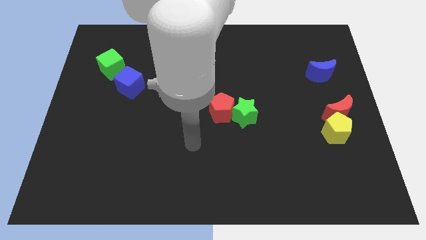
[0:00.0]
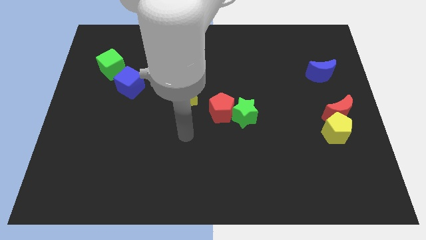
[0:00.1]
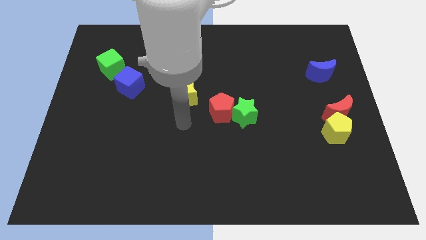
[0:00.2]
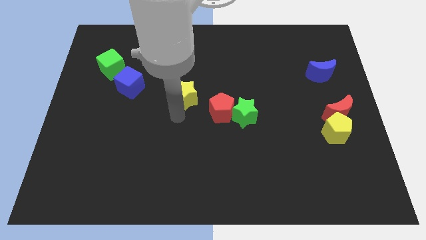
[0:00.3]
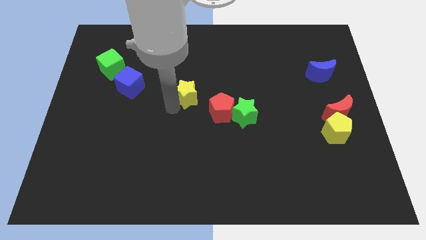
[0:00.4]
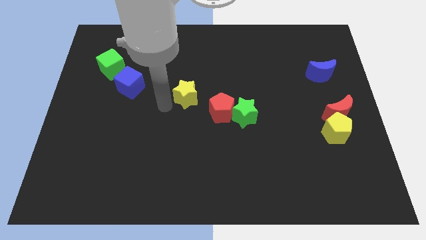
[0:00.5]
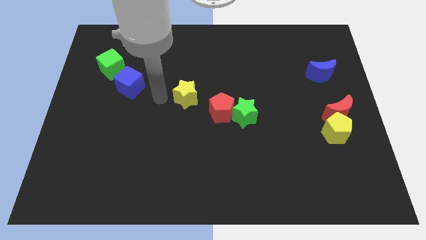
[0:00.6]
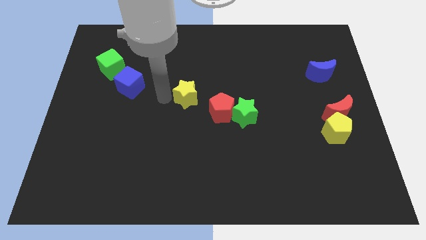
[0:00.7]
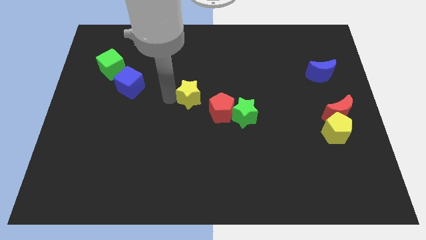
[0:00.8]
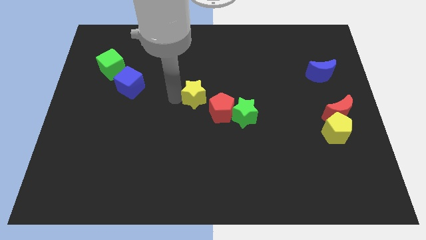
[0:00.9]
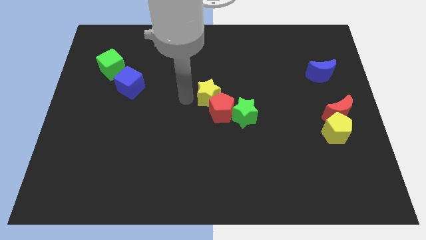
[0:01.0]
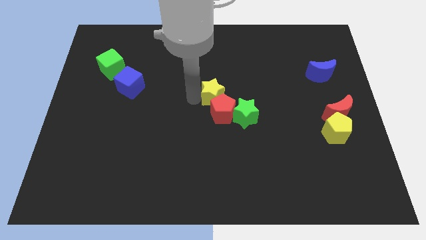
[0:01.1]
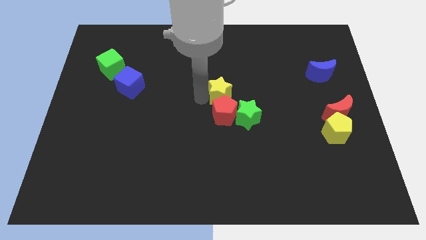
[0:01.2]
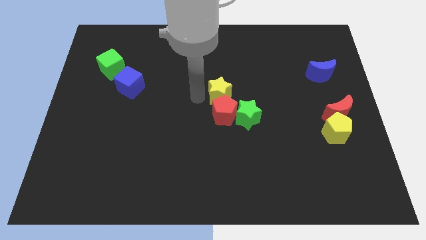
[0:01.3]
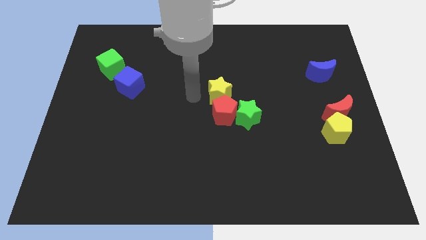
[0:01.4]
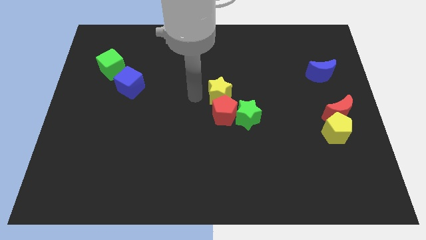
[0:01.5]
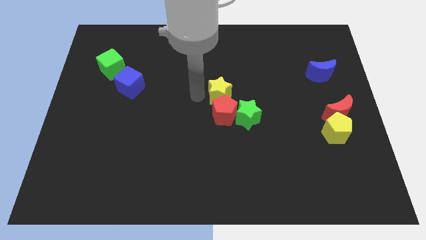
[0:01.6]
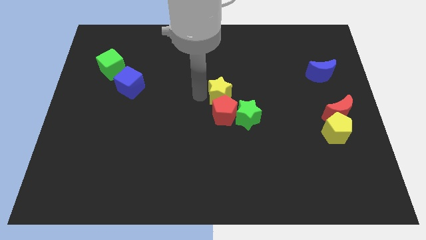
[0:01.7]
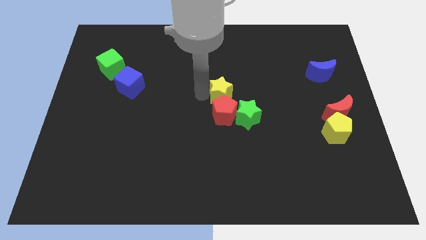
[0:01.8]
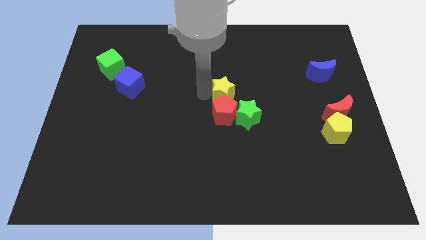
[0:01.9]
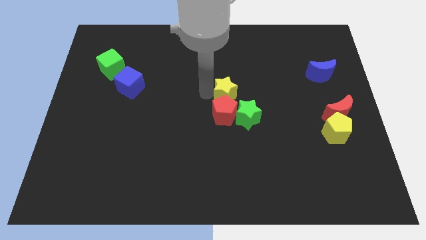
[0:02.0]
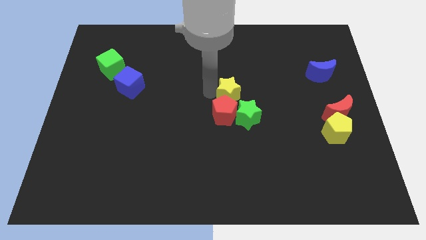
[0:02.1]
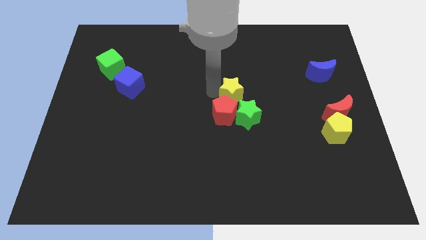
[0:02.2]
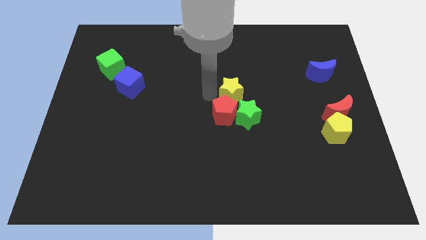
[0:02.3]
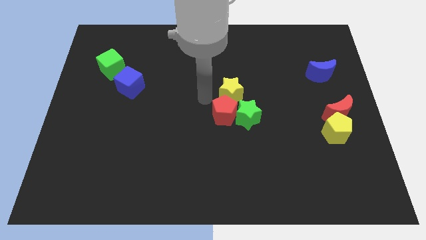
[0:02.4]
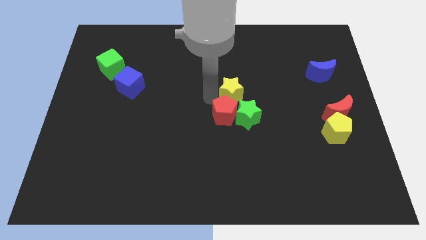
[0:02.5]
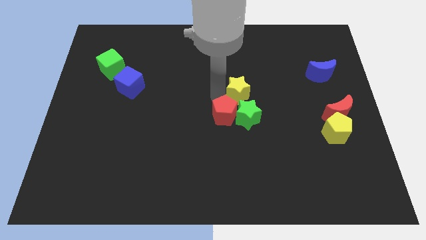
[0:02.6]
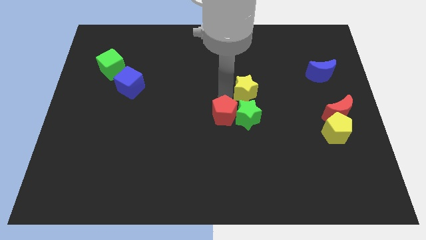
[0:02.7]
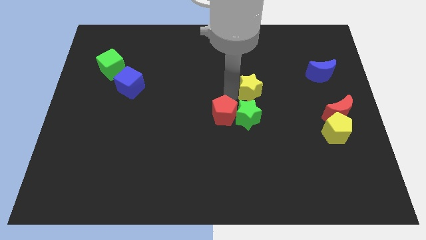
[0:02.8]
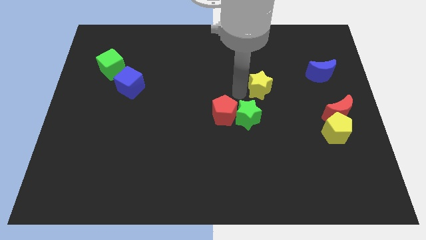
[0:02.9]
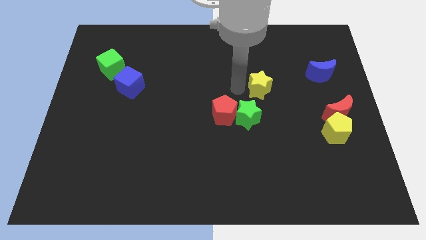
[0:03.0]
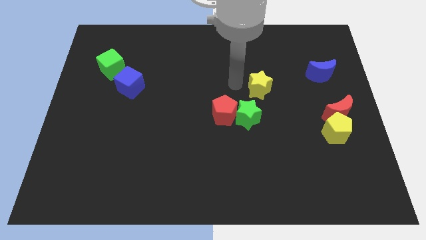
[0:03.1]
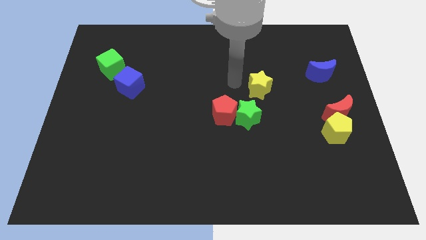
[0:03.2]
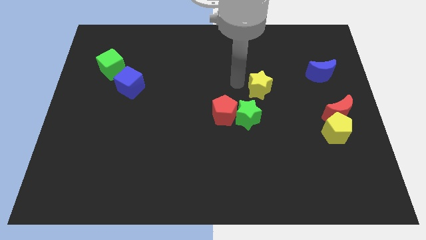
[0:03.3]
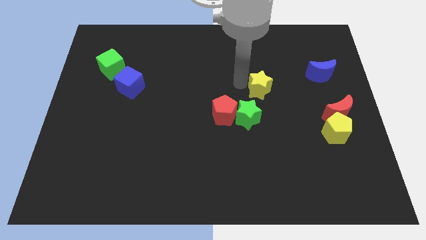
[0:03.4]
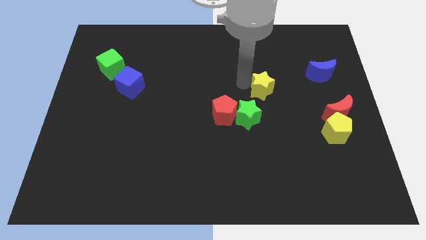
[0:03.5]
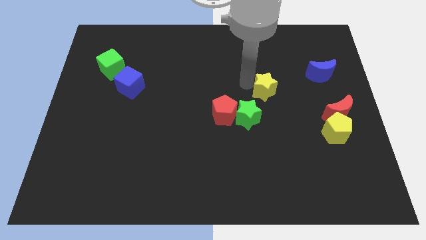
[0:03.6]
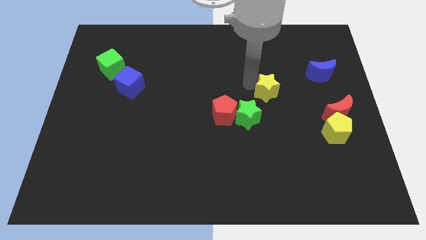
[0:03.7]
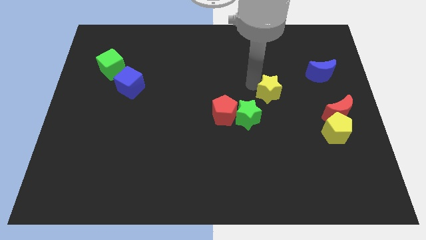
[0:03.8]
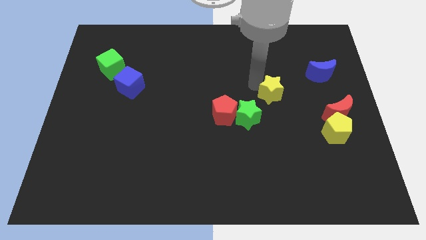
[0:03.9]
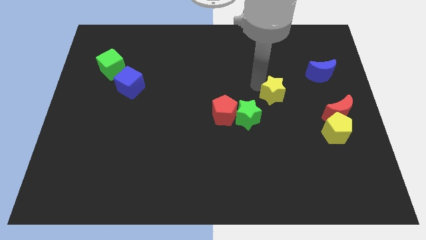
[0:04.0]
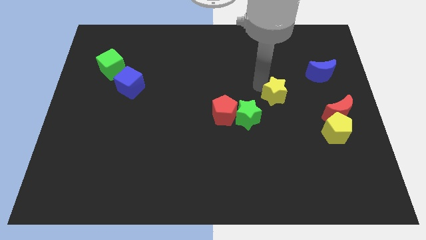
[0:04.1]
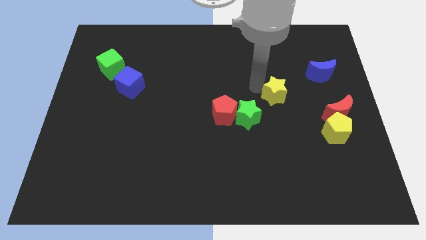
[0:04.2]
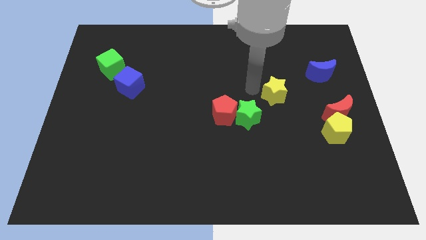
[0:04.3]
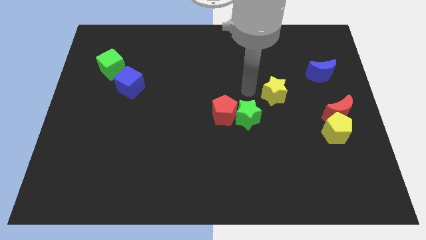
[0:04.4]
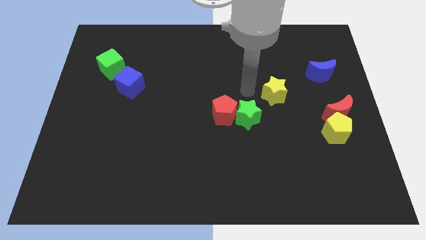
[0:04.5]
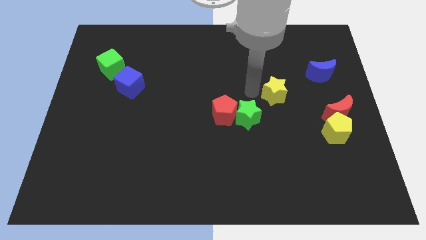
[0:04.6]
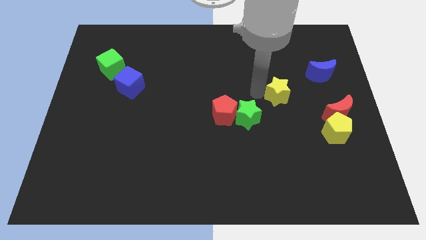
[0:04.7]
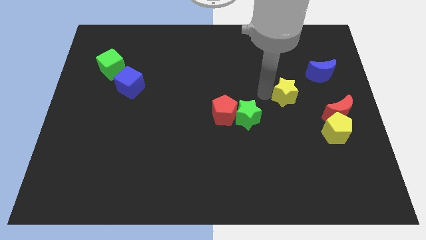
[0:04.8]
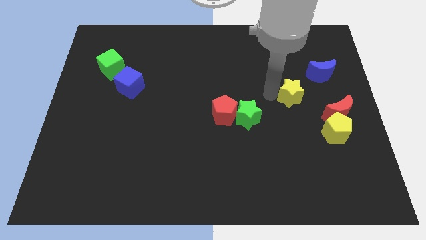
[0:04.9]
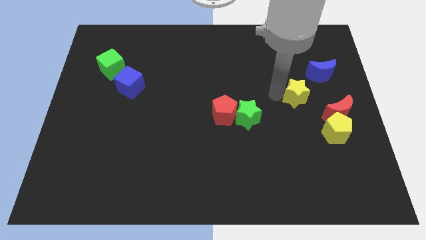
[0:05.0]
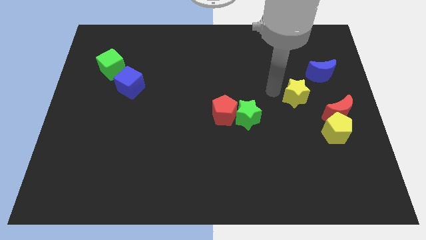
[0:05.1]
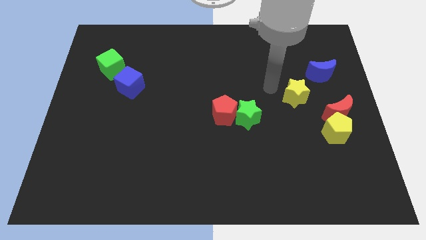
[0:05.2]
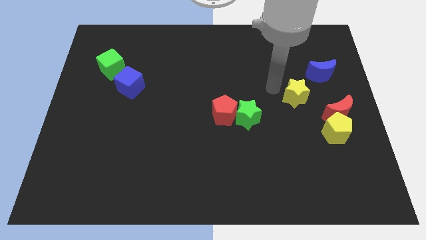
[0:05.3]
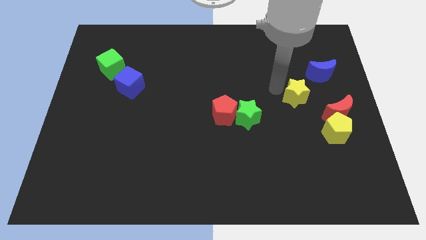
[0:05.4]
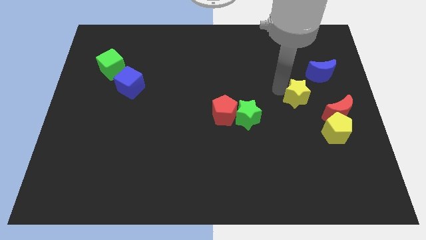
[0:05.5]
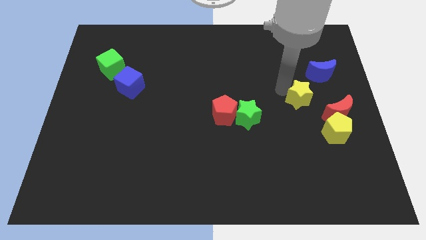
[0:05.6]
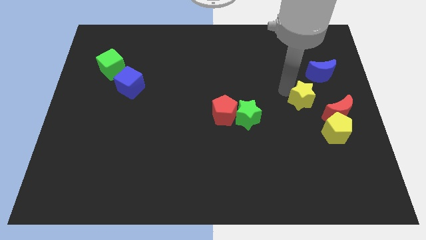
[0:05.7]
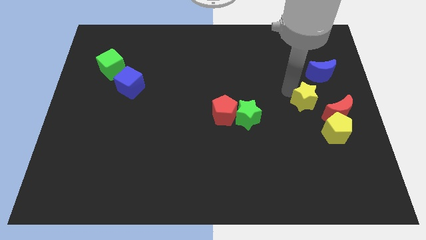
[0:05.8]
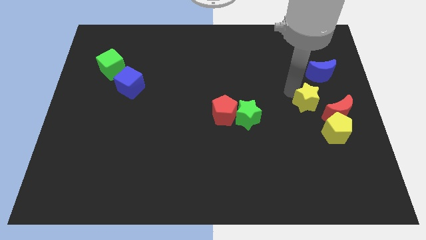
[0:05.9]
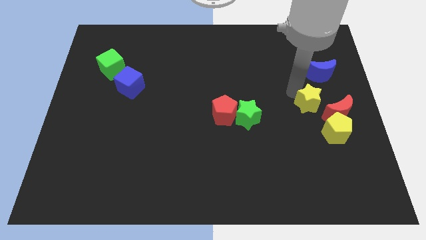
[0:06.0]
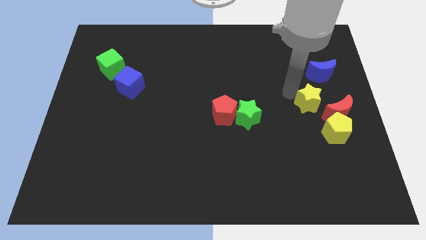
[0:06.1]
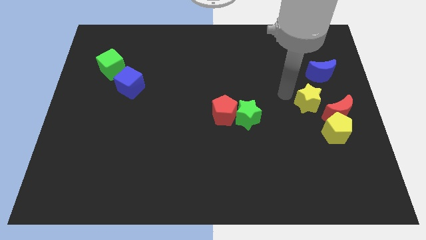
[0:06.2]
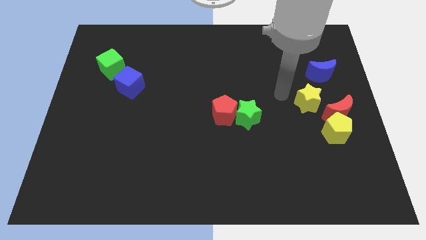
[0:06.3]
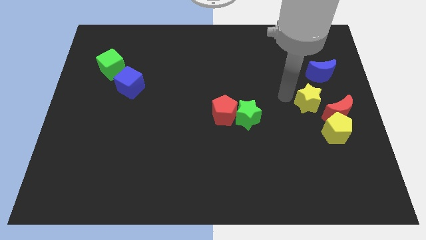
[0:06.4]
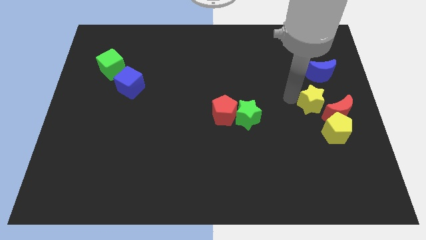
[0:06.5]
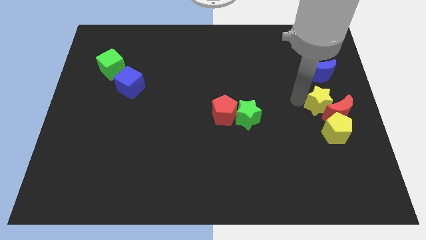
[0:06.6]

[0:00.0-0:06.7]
push the yellow star next to the red moon

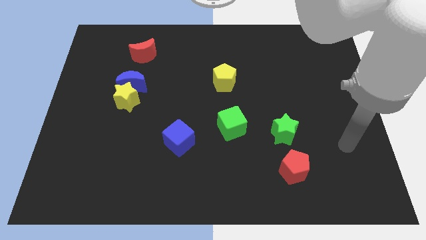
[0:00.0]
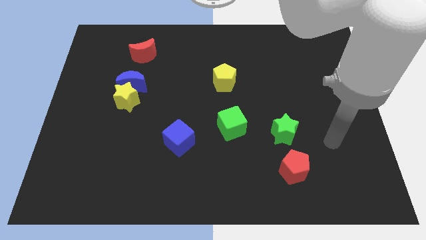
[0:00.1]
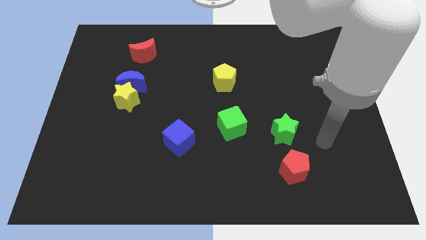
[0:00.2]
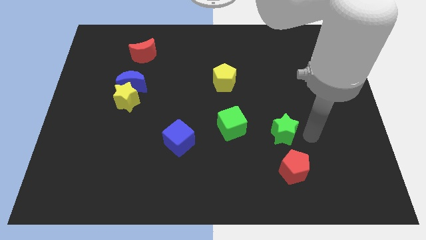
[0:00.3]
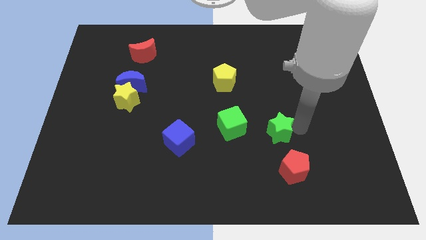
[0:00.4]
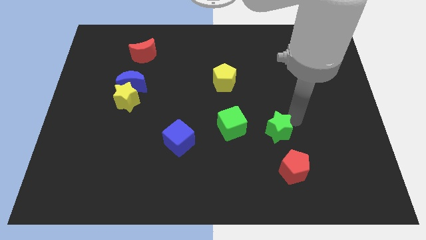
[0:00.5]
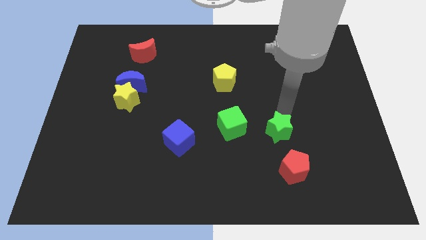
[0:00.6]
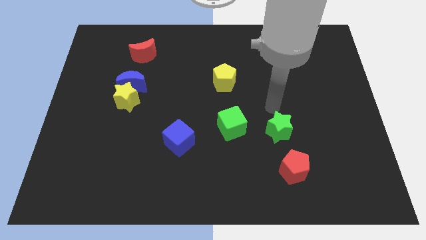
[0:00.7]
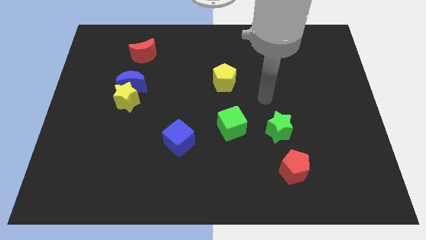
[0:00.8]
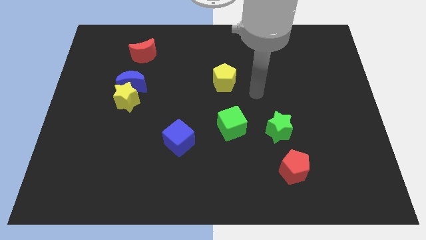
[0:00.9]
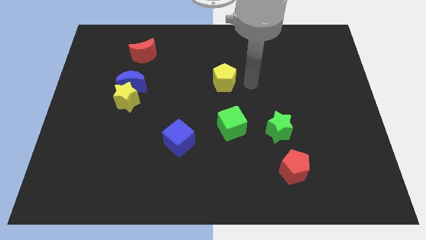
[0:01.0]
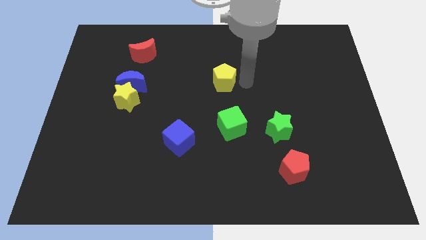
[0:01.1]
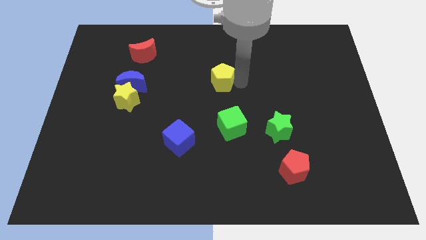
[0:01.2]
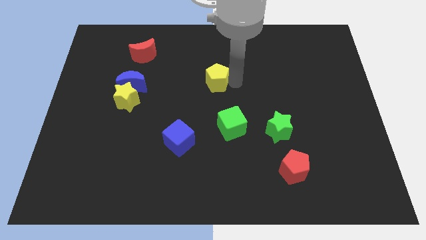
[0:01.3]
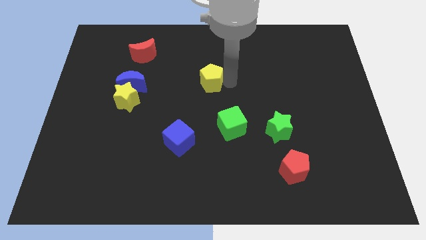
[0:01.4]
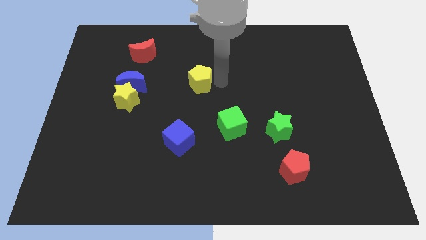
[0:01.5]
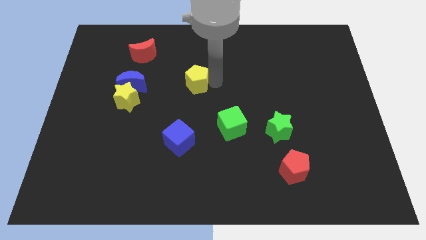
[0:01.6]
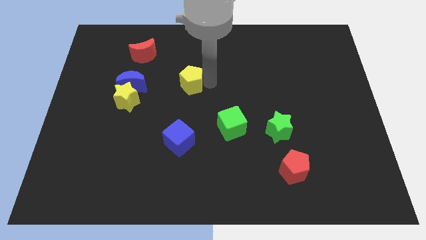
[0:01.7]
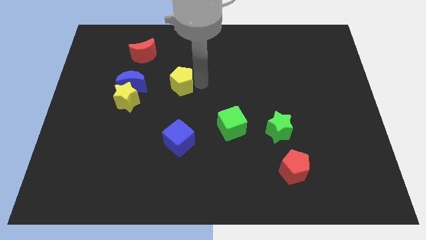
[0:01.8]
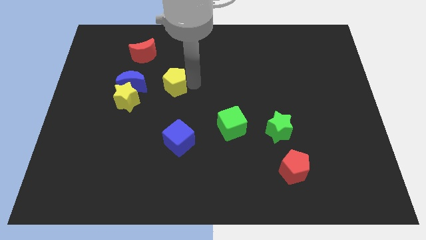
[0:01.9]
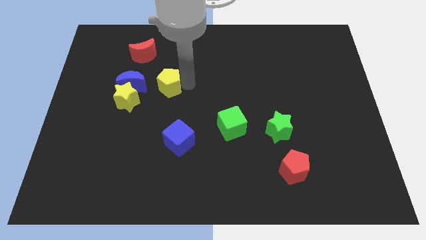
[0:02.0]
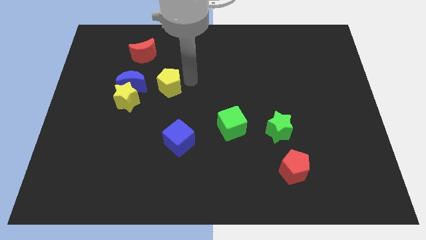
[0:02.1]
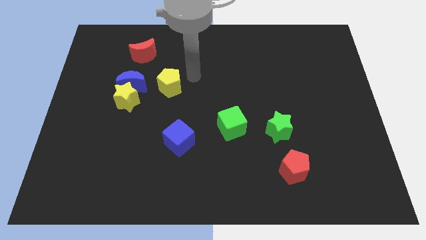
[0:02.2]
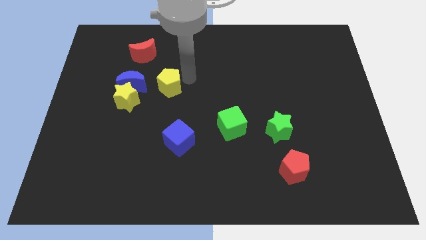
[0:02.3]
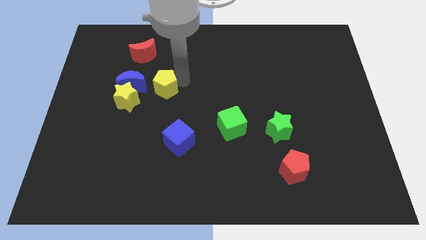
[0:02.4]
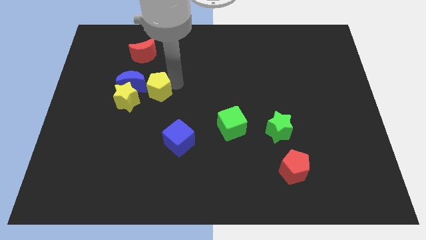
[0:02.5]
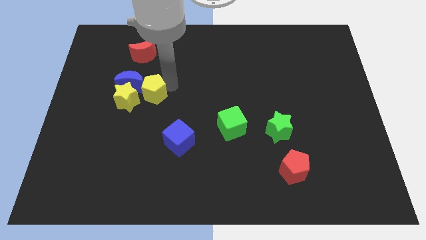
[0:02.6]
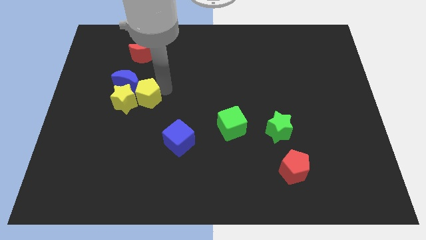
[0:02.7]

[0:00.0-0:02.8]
push the yellow pentagon next to the yellow star
